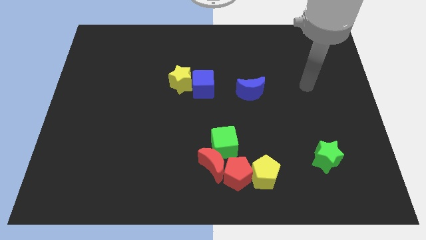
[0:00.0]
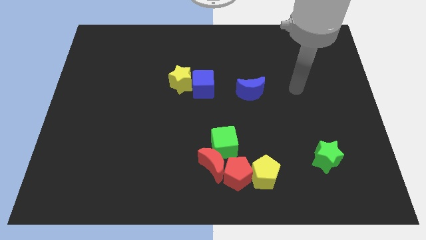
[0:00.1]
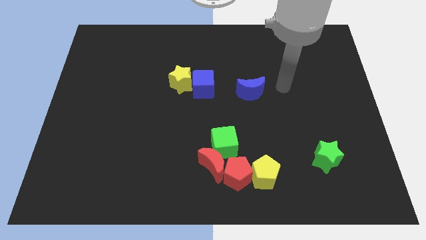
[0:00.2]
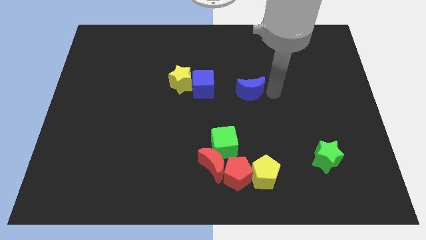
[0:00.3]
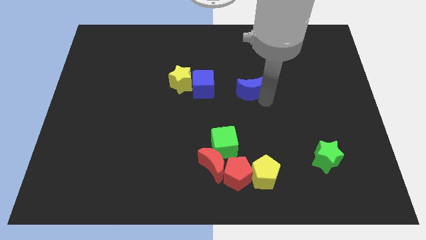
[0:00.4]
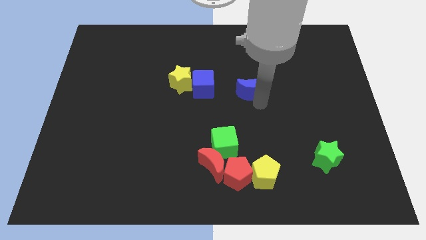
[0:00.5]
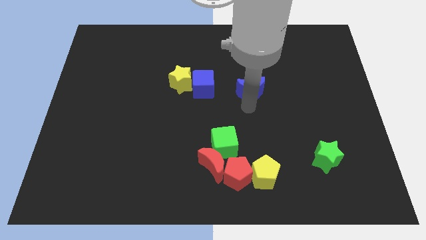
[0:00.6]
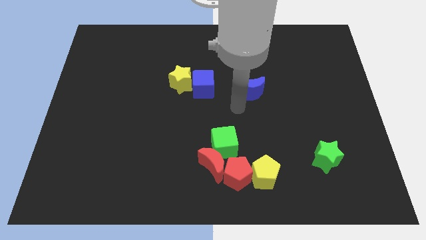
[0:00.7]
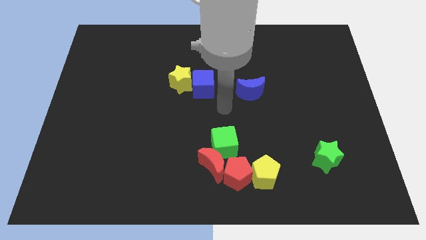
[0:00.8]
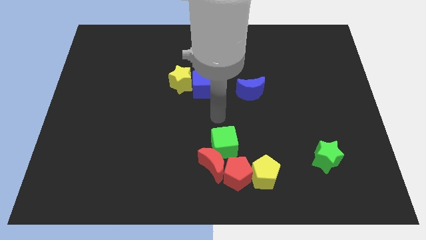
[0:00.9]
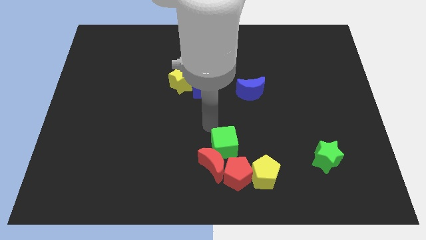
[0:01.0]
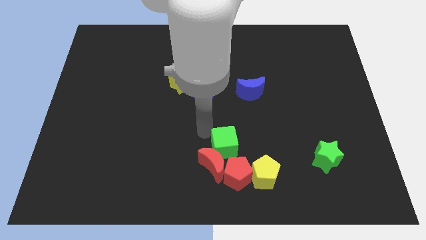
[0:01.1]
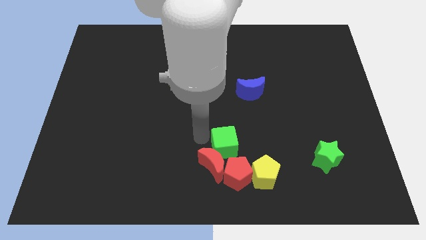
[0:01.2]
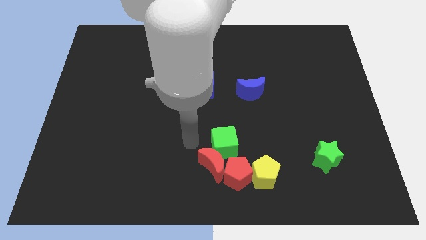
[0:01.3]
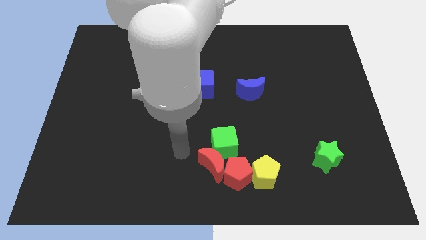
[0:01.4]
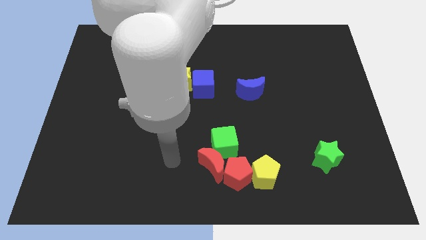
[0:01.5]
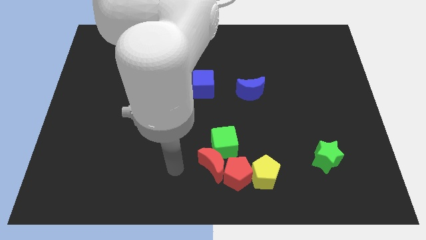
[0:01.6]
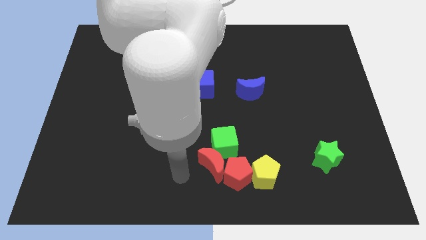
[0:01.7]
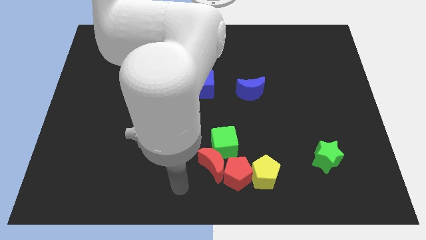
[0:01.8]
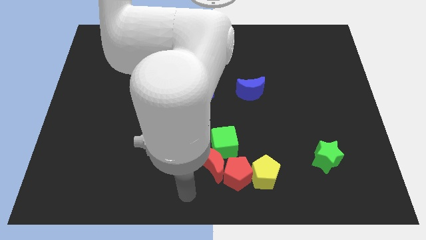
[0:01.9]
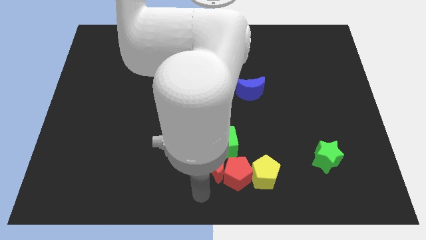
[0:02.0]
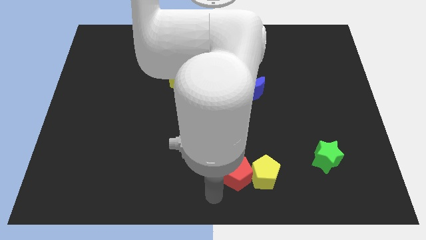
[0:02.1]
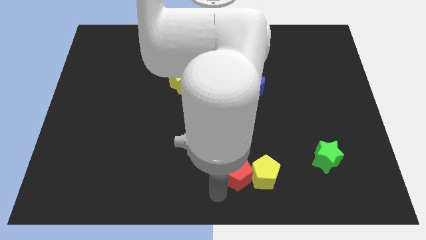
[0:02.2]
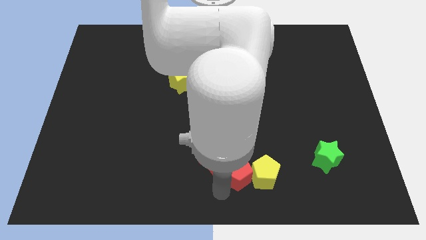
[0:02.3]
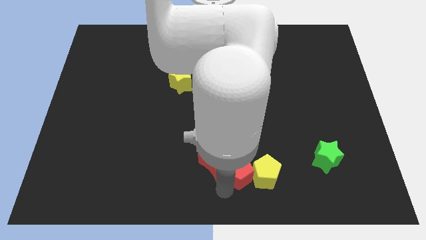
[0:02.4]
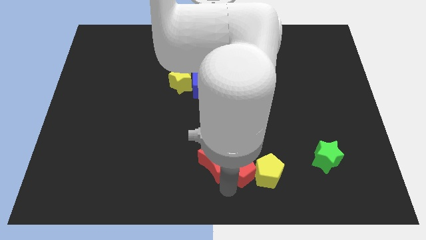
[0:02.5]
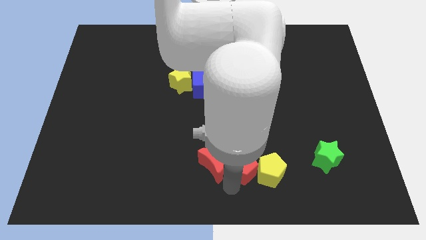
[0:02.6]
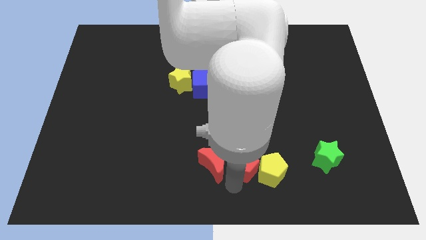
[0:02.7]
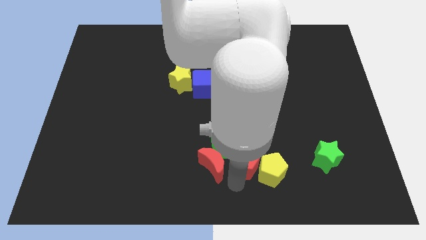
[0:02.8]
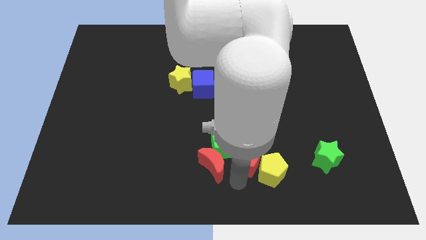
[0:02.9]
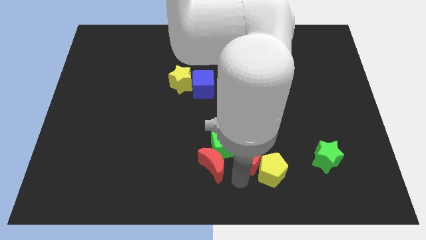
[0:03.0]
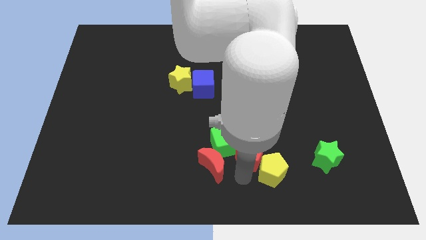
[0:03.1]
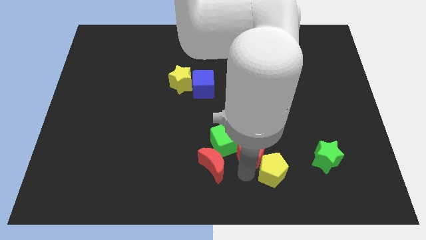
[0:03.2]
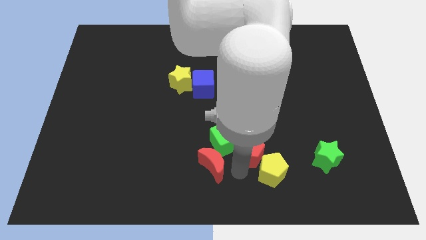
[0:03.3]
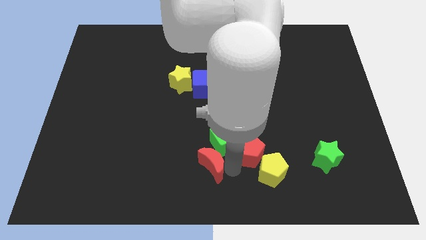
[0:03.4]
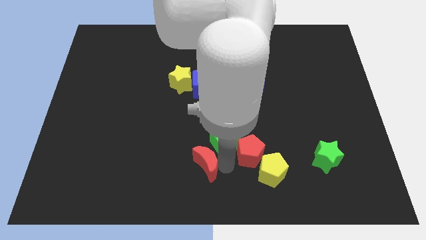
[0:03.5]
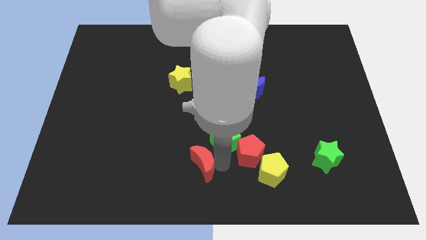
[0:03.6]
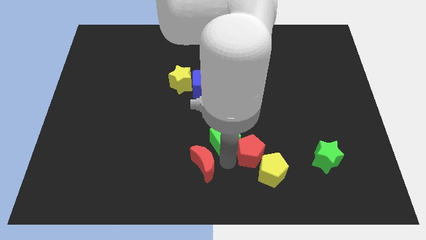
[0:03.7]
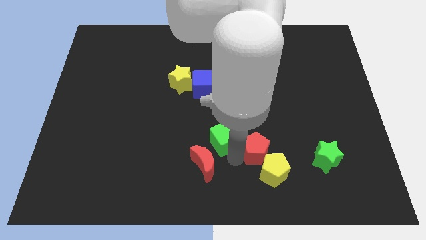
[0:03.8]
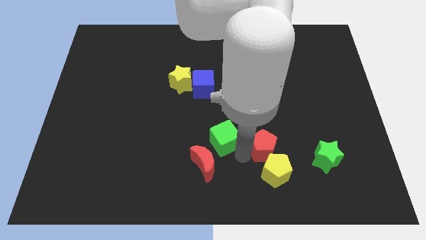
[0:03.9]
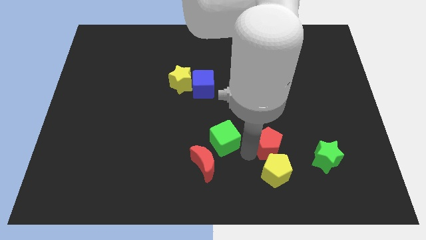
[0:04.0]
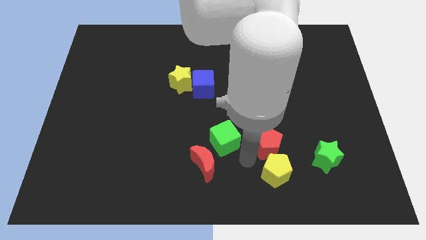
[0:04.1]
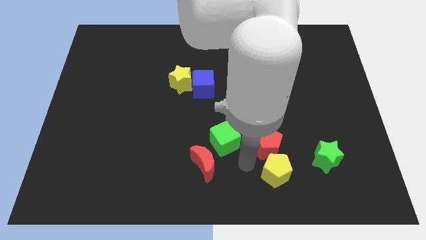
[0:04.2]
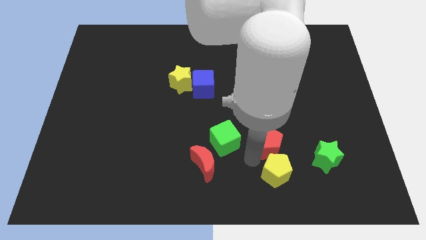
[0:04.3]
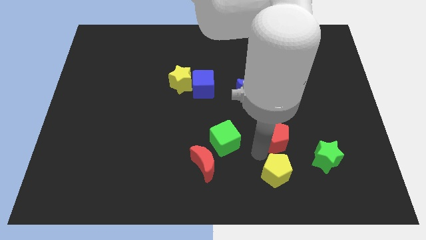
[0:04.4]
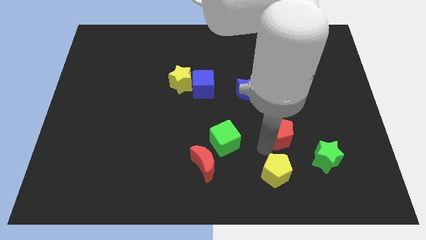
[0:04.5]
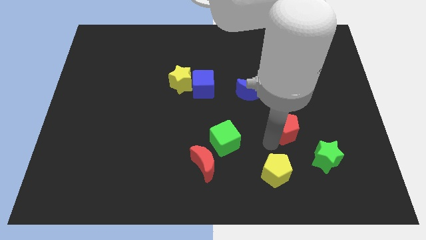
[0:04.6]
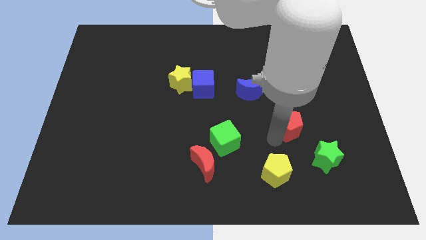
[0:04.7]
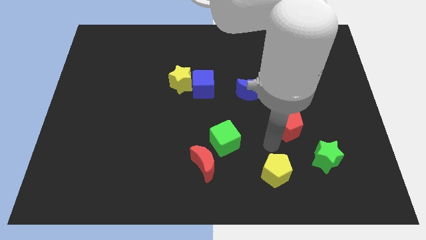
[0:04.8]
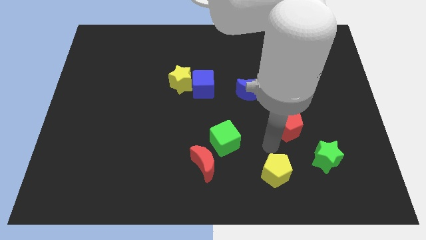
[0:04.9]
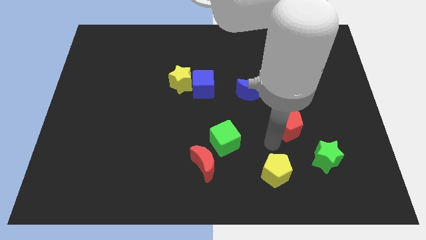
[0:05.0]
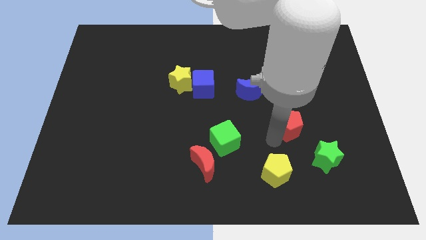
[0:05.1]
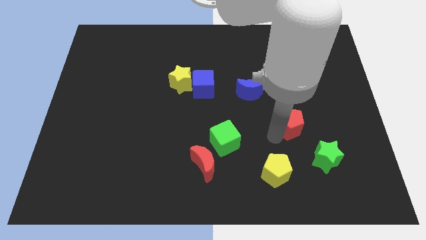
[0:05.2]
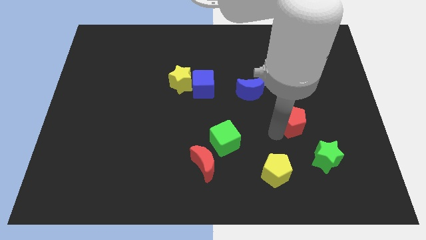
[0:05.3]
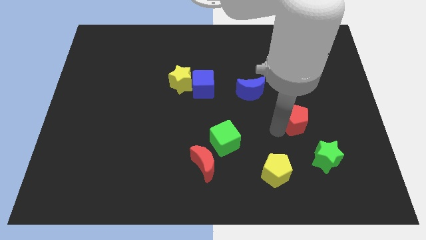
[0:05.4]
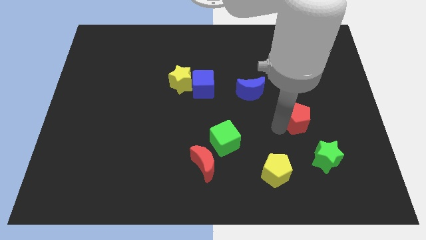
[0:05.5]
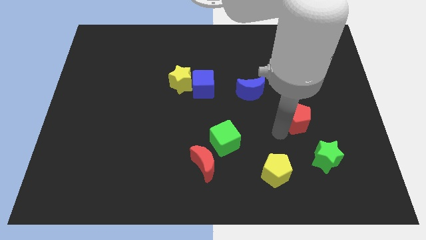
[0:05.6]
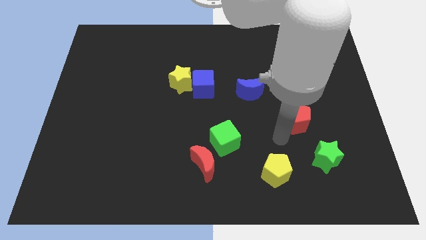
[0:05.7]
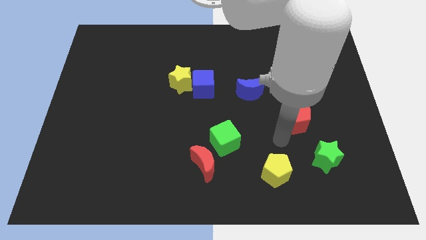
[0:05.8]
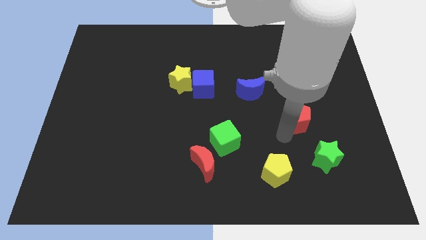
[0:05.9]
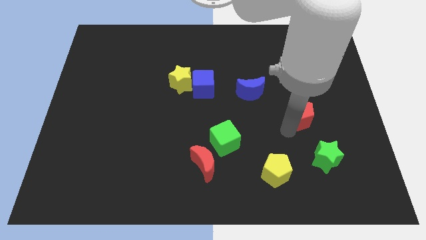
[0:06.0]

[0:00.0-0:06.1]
slide the red pentagon upwards and right diagonally

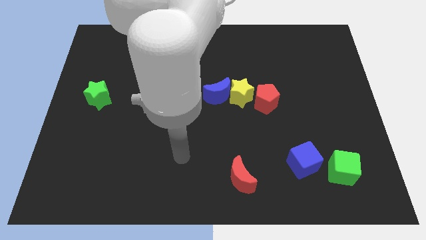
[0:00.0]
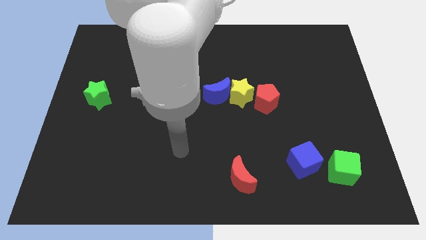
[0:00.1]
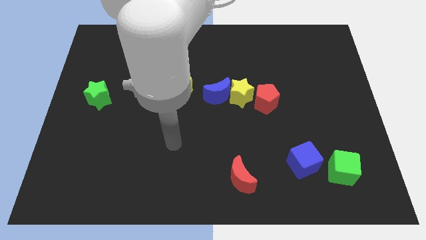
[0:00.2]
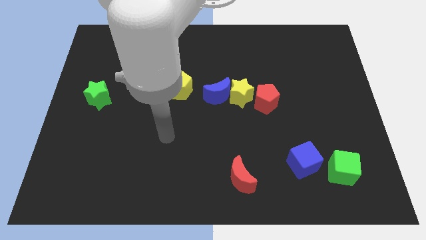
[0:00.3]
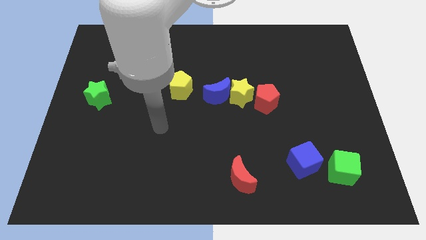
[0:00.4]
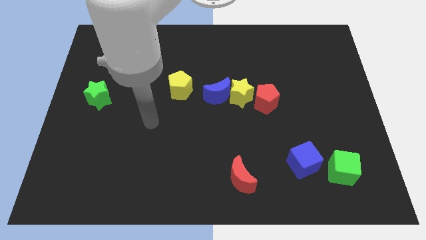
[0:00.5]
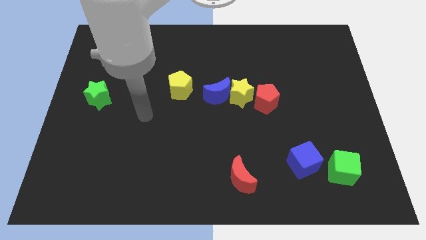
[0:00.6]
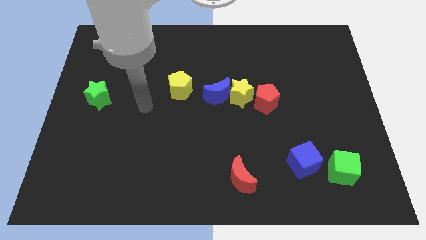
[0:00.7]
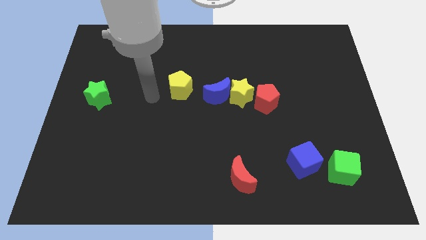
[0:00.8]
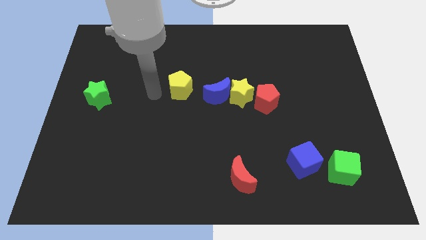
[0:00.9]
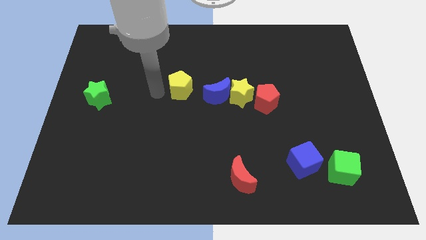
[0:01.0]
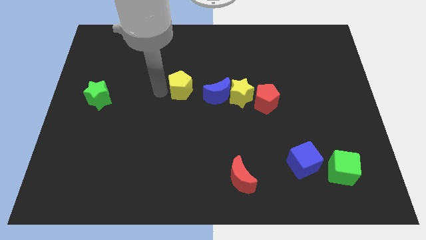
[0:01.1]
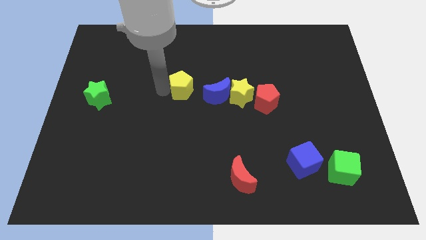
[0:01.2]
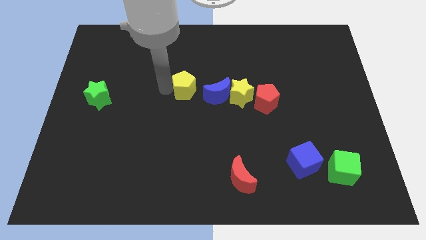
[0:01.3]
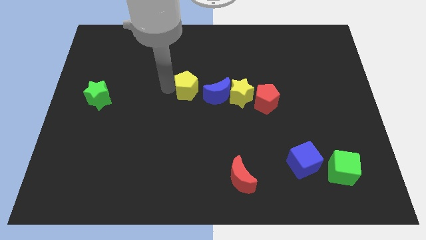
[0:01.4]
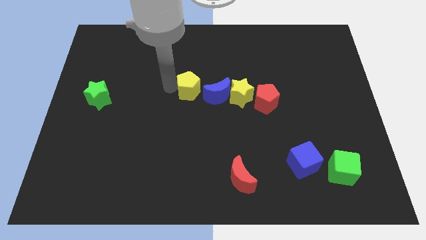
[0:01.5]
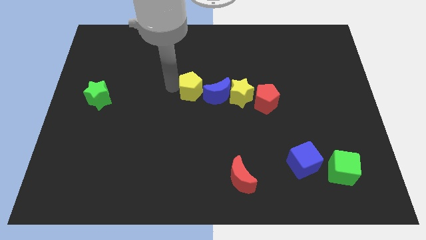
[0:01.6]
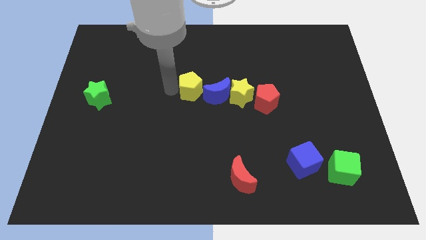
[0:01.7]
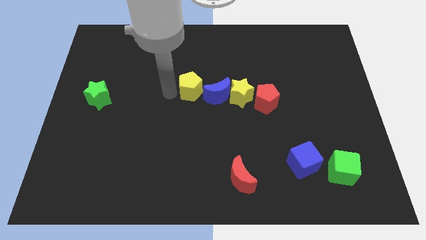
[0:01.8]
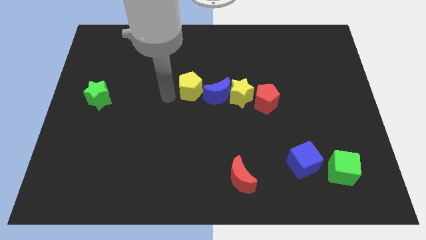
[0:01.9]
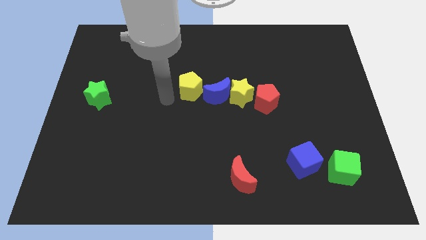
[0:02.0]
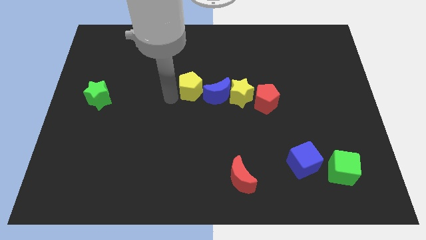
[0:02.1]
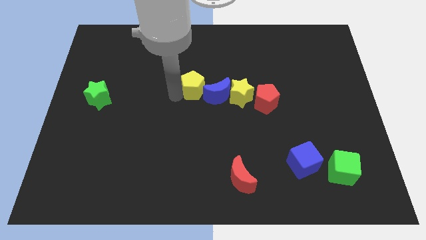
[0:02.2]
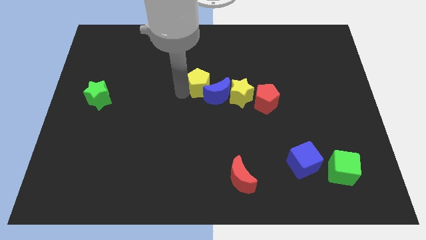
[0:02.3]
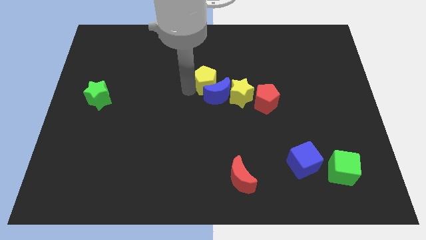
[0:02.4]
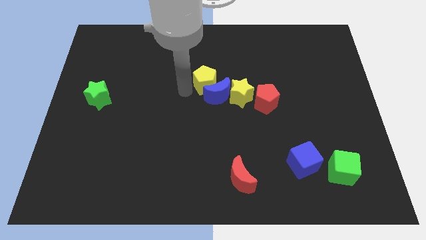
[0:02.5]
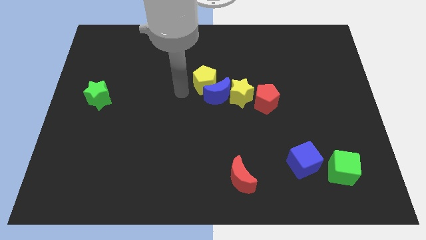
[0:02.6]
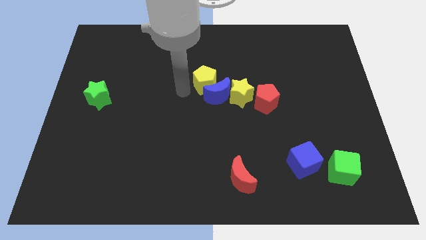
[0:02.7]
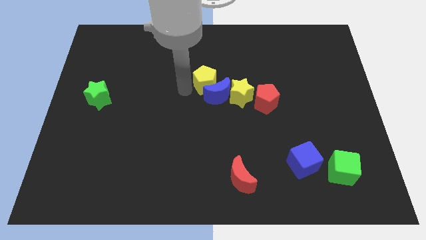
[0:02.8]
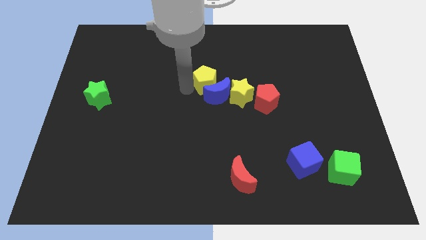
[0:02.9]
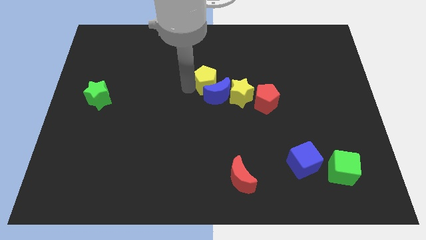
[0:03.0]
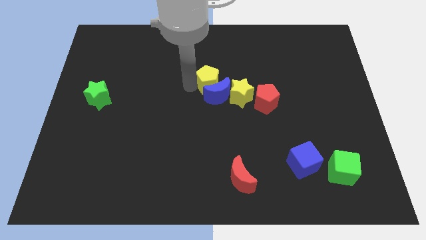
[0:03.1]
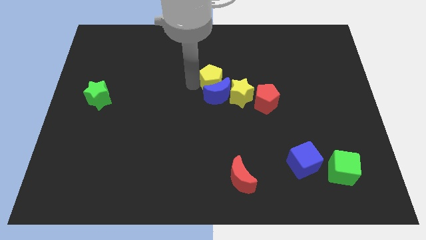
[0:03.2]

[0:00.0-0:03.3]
push the yellow pentagon right a little
